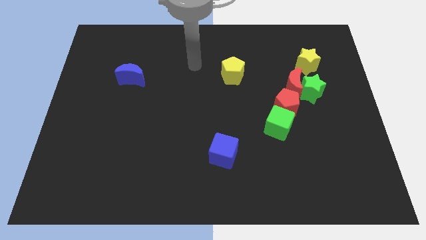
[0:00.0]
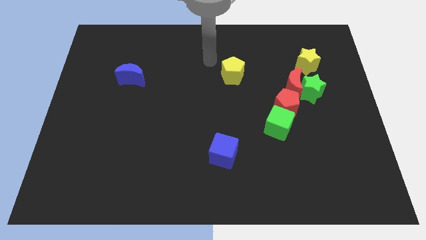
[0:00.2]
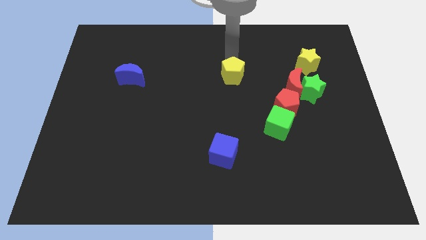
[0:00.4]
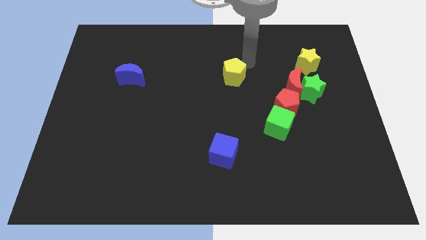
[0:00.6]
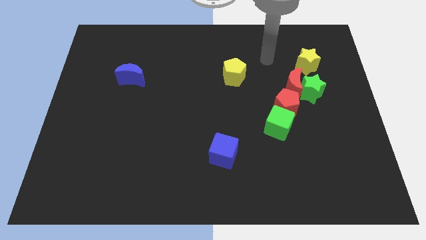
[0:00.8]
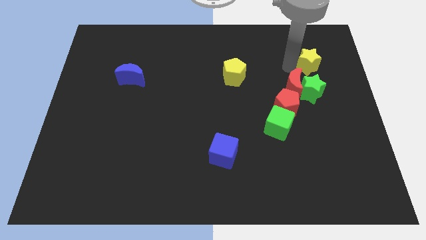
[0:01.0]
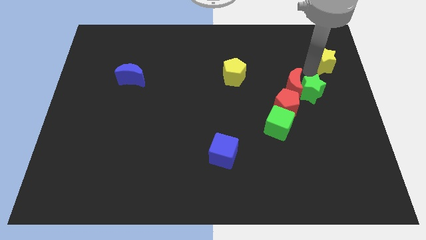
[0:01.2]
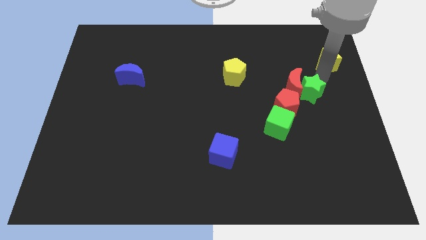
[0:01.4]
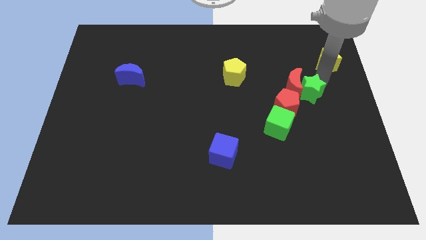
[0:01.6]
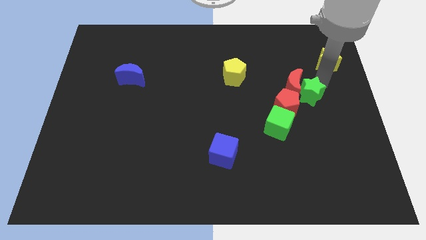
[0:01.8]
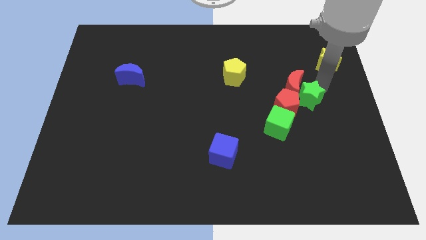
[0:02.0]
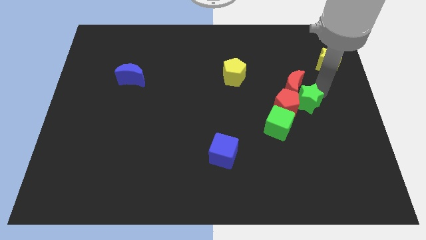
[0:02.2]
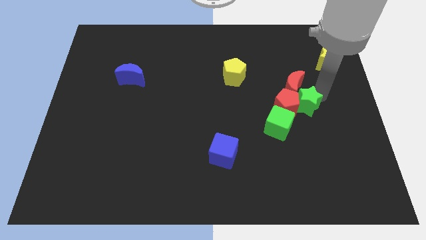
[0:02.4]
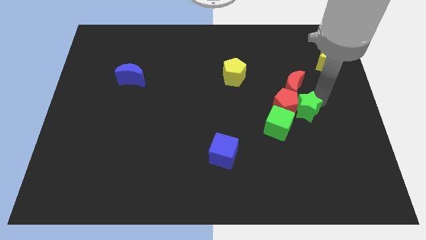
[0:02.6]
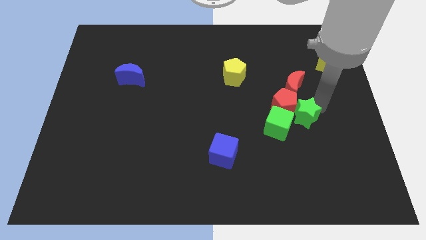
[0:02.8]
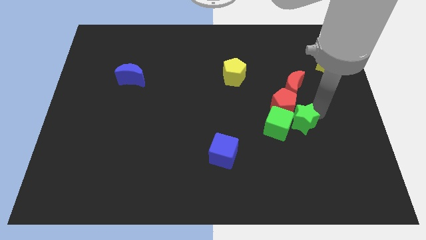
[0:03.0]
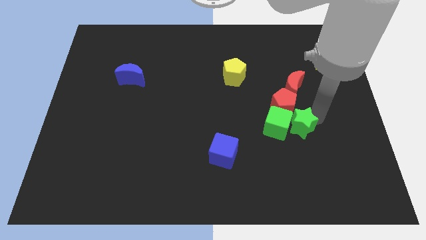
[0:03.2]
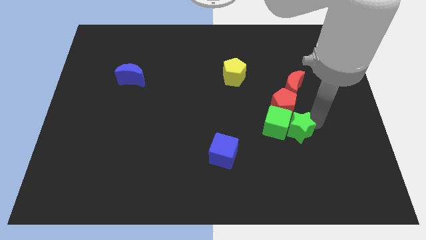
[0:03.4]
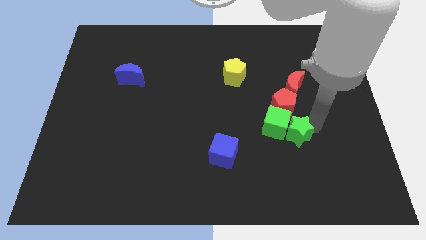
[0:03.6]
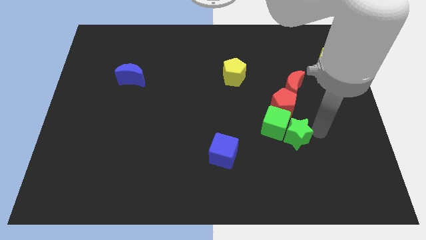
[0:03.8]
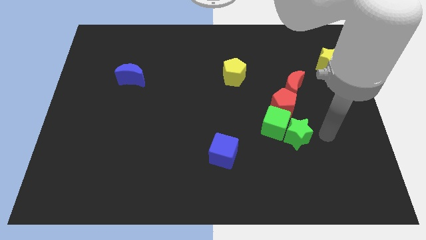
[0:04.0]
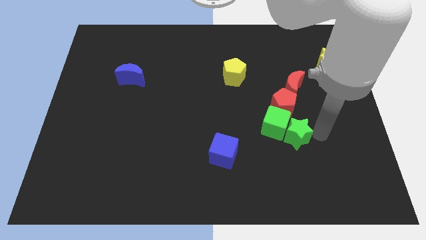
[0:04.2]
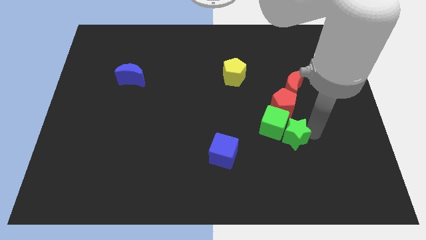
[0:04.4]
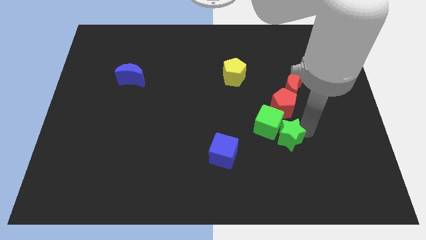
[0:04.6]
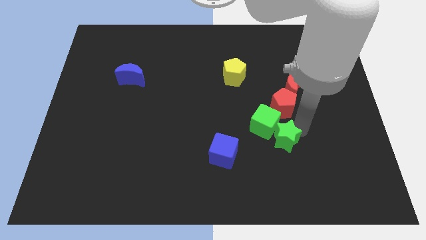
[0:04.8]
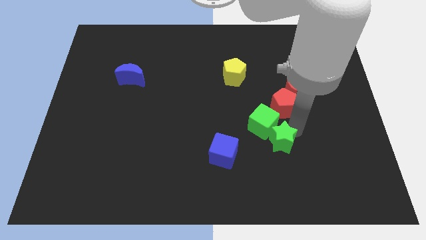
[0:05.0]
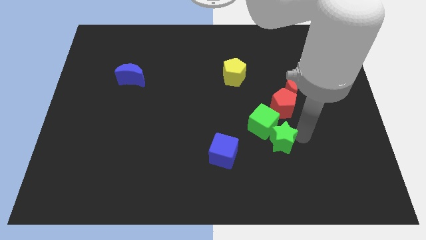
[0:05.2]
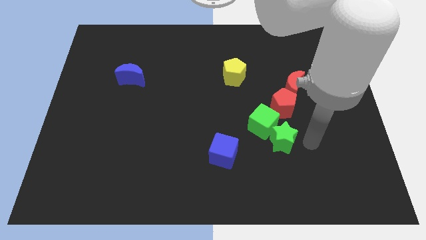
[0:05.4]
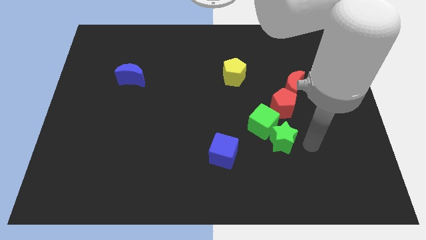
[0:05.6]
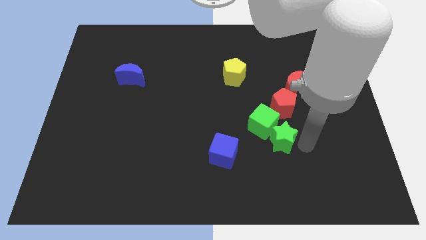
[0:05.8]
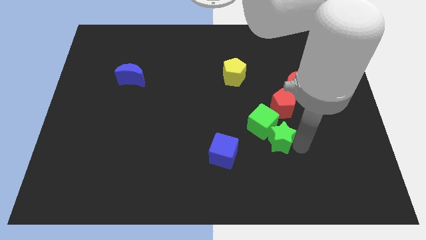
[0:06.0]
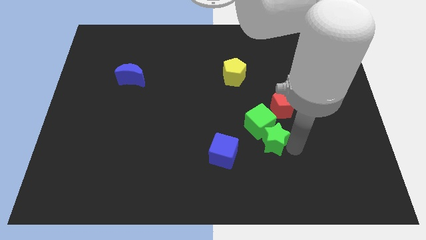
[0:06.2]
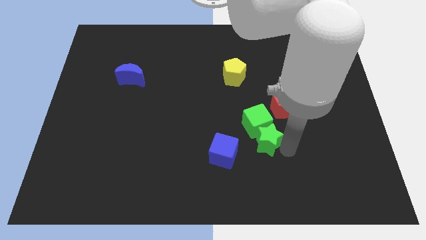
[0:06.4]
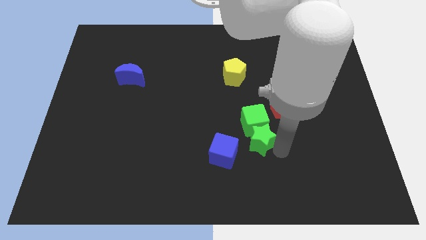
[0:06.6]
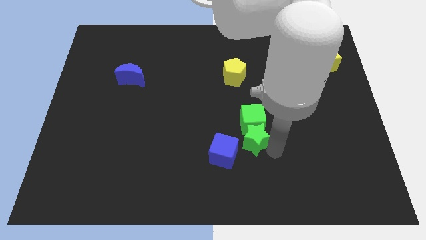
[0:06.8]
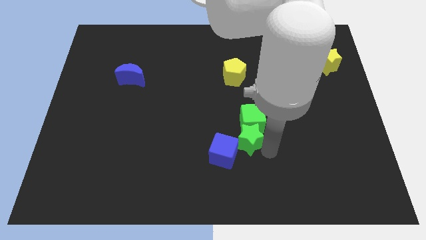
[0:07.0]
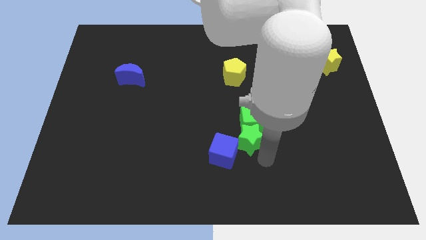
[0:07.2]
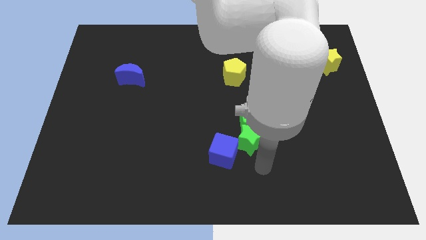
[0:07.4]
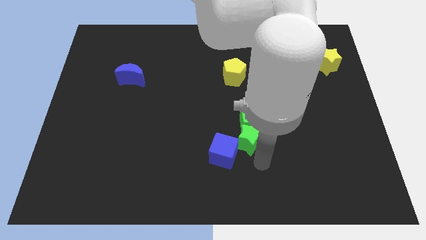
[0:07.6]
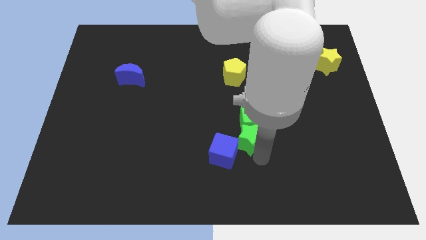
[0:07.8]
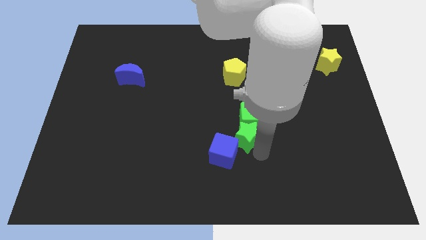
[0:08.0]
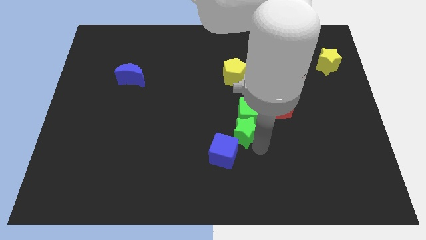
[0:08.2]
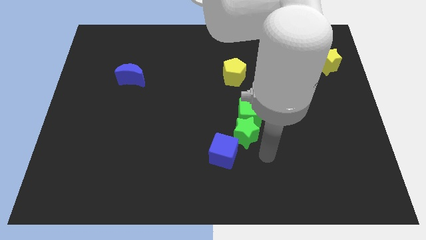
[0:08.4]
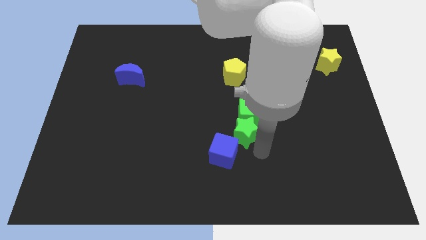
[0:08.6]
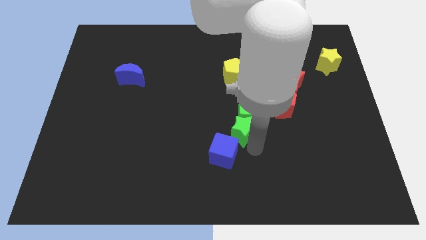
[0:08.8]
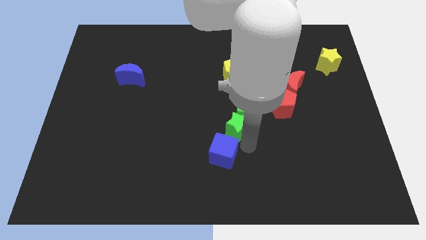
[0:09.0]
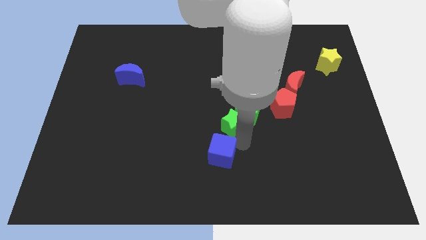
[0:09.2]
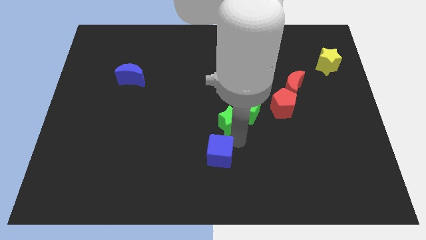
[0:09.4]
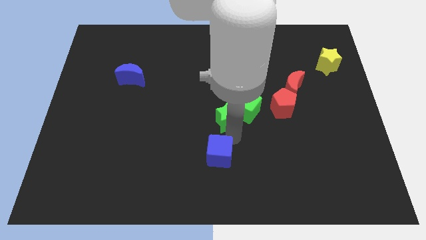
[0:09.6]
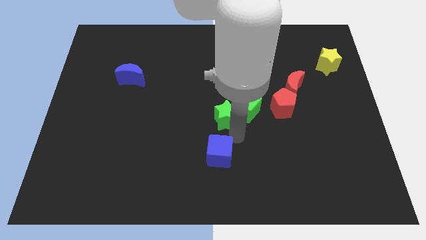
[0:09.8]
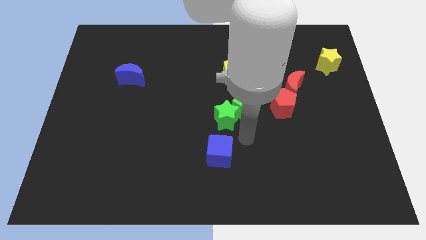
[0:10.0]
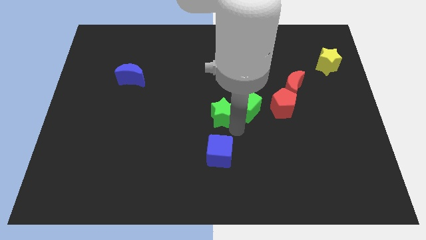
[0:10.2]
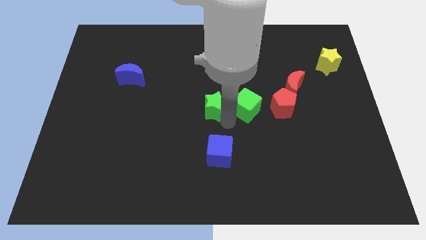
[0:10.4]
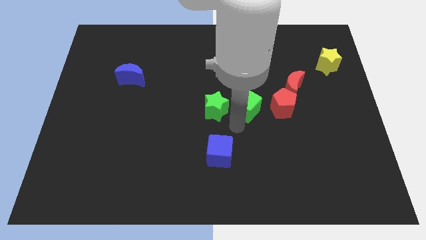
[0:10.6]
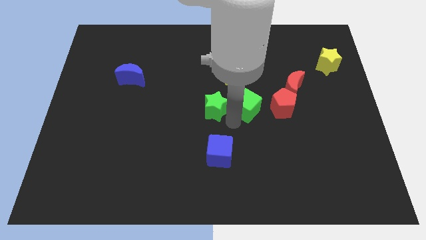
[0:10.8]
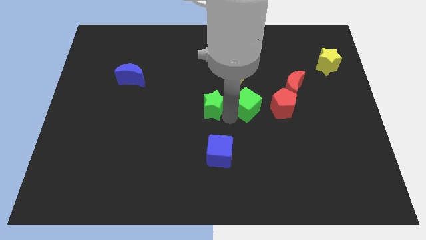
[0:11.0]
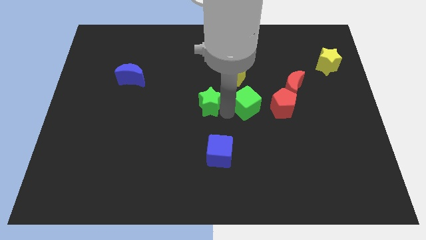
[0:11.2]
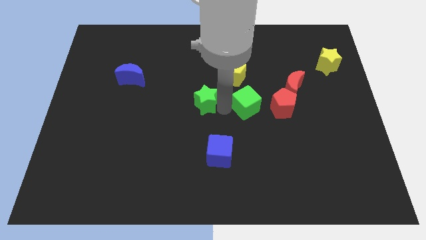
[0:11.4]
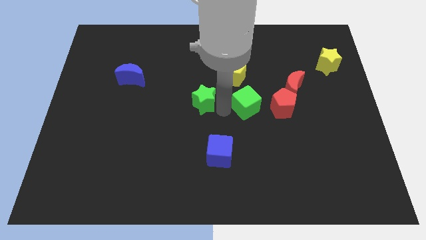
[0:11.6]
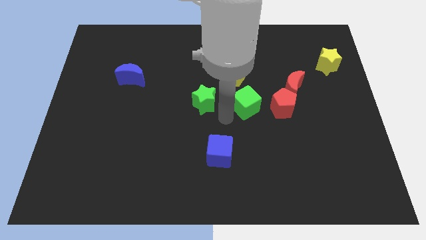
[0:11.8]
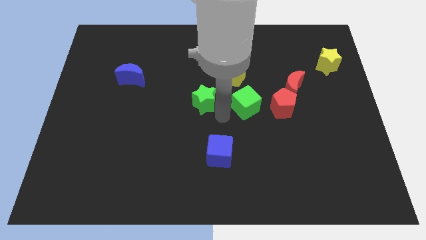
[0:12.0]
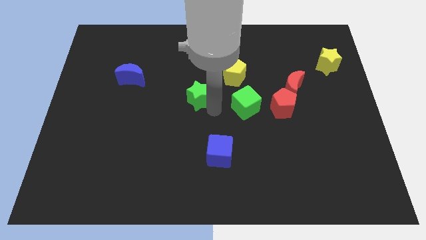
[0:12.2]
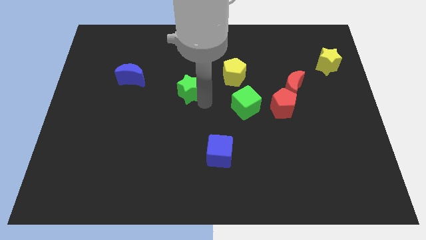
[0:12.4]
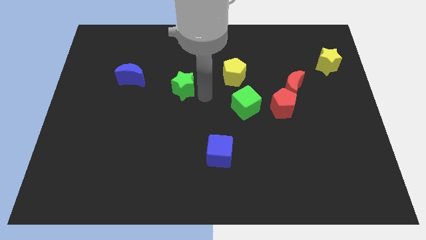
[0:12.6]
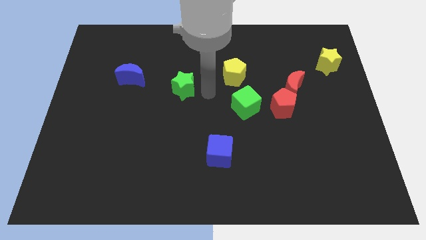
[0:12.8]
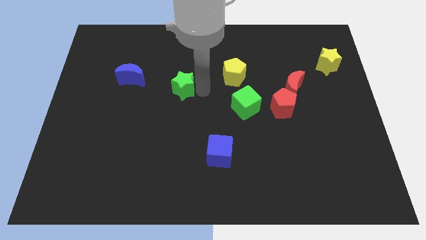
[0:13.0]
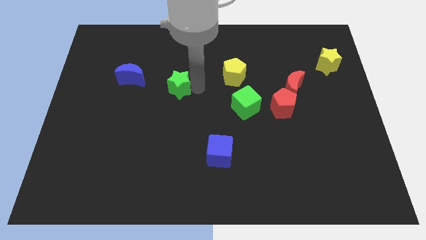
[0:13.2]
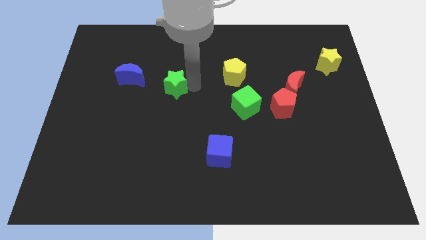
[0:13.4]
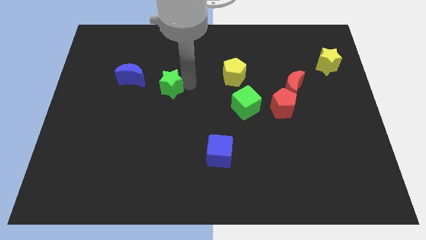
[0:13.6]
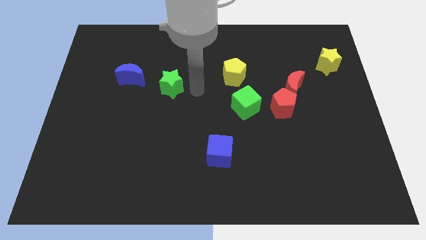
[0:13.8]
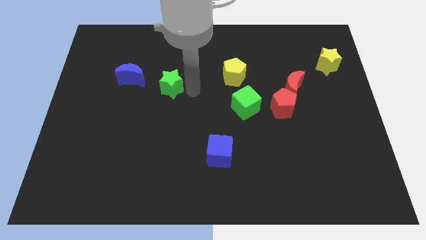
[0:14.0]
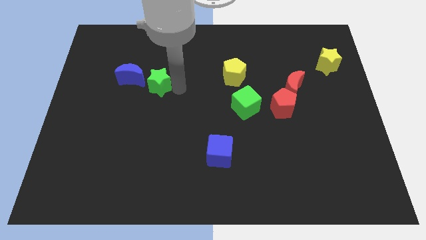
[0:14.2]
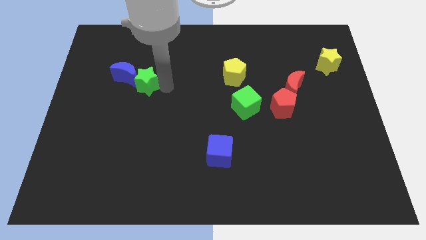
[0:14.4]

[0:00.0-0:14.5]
push the green star to the blue moon

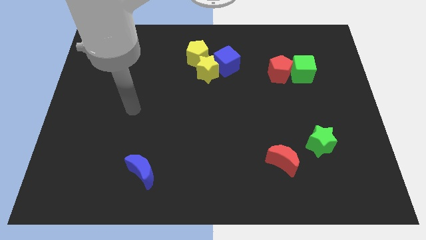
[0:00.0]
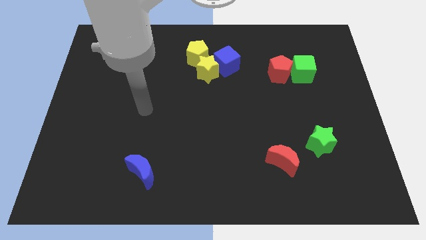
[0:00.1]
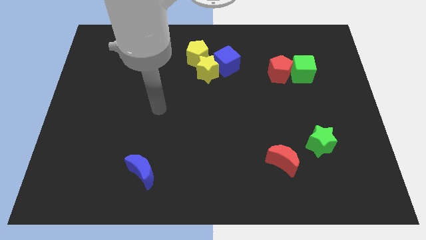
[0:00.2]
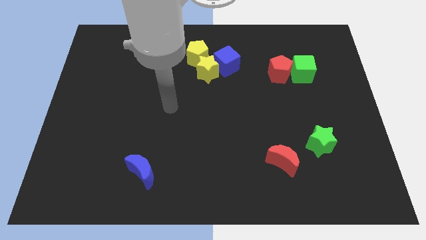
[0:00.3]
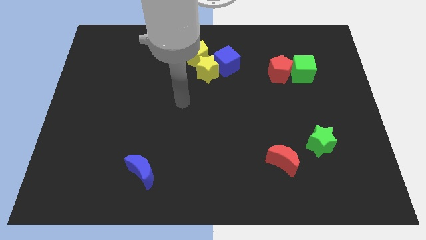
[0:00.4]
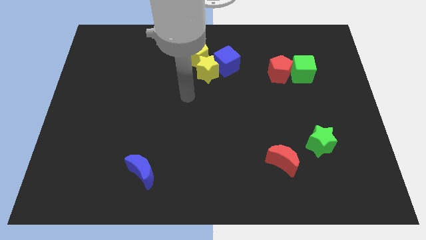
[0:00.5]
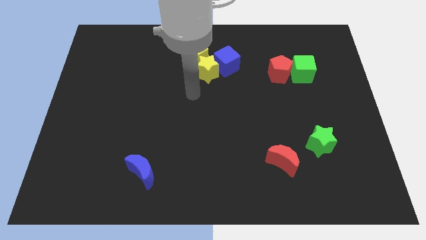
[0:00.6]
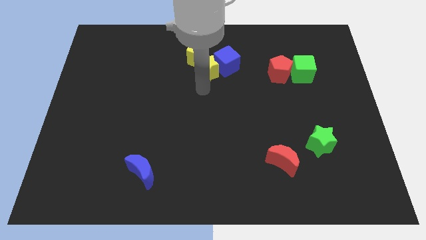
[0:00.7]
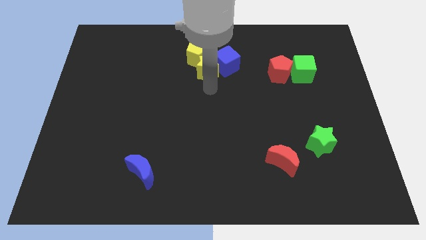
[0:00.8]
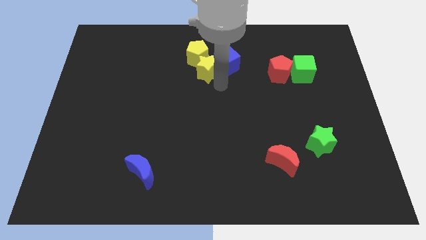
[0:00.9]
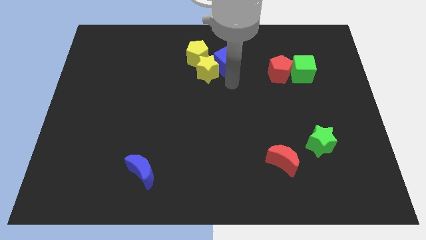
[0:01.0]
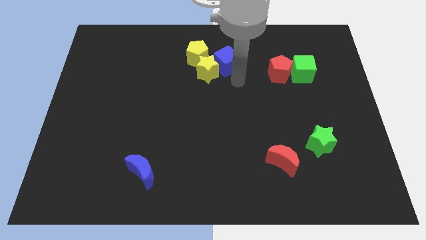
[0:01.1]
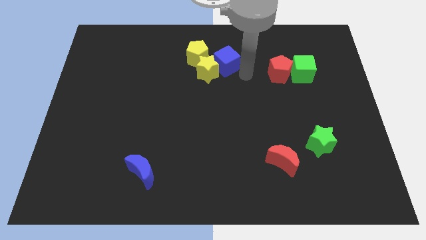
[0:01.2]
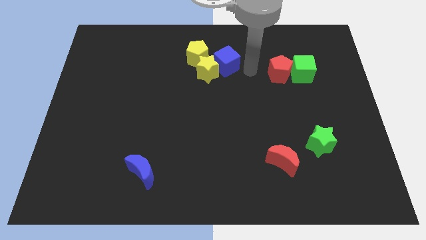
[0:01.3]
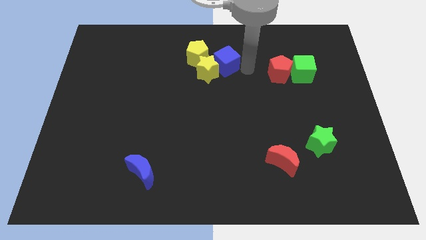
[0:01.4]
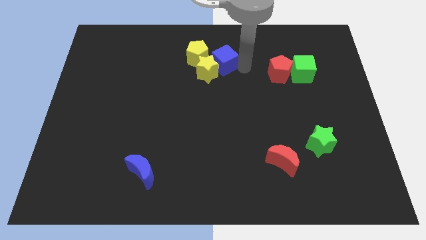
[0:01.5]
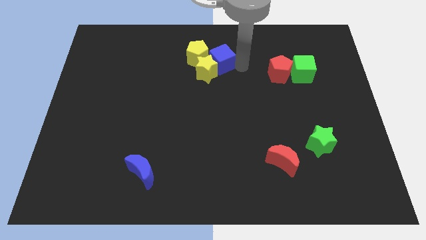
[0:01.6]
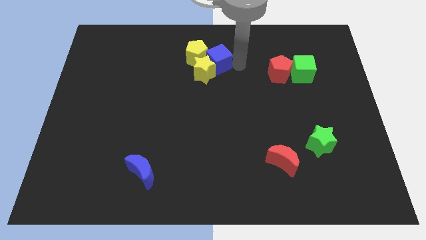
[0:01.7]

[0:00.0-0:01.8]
push the blue cube close to the yellow pentagon
